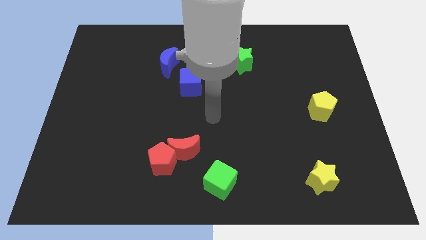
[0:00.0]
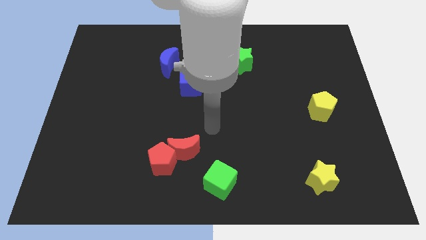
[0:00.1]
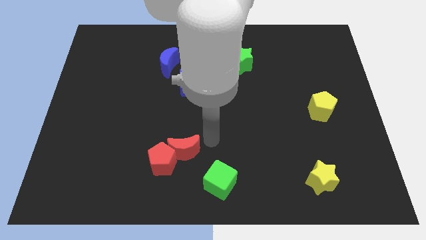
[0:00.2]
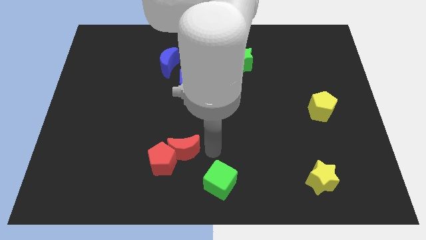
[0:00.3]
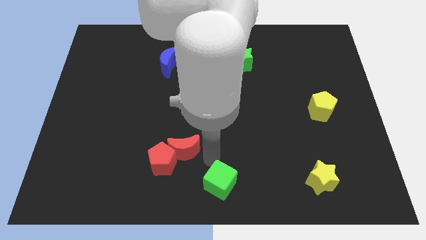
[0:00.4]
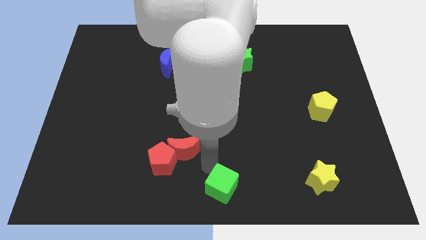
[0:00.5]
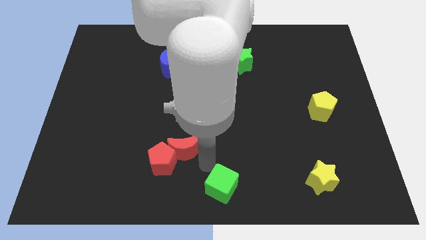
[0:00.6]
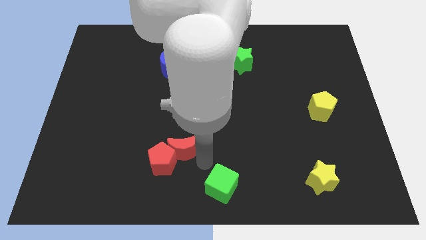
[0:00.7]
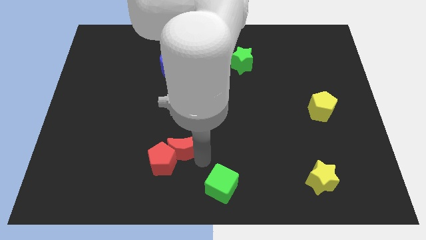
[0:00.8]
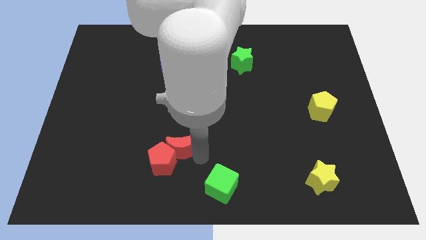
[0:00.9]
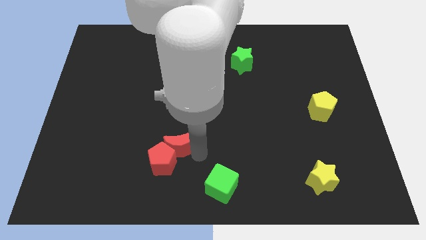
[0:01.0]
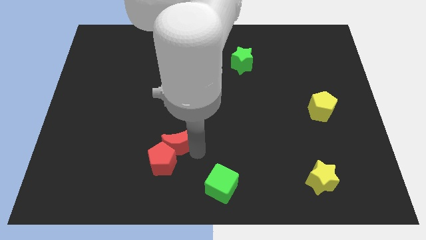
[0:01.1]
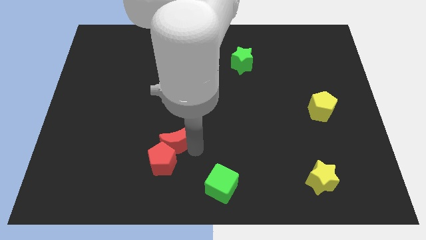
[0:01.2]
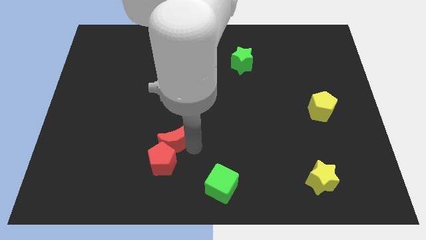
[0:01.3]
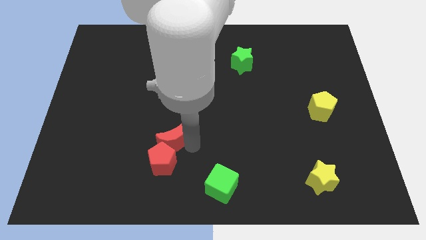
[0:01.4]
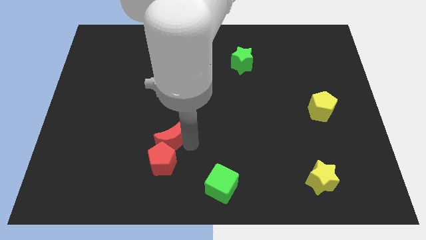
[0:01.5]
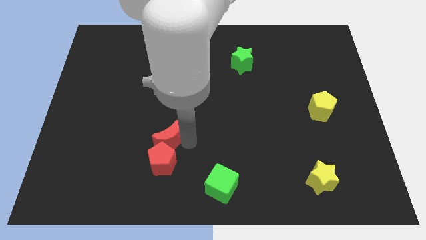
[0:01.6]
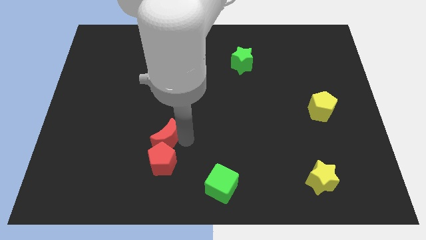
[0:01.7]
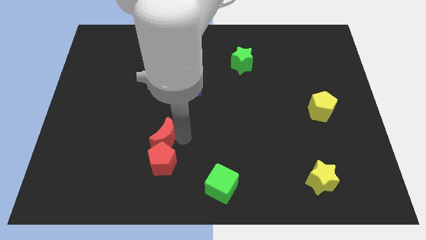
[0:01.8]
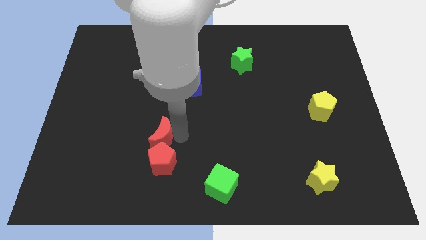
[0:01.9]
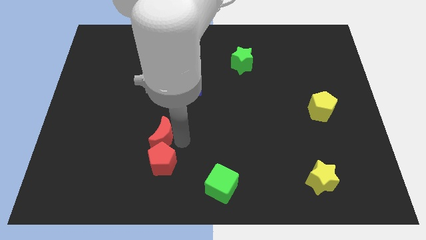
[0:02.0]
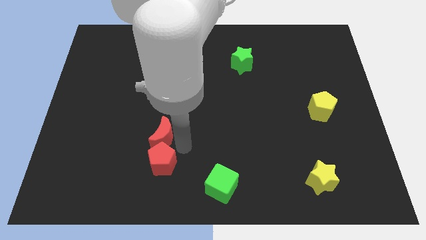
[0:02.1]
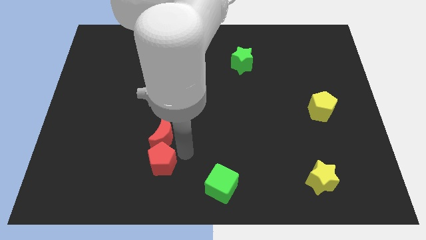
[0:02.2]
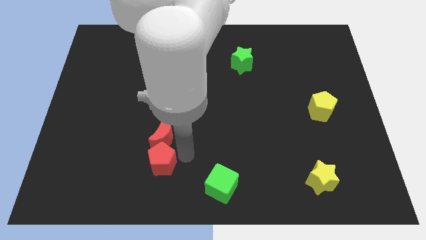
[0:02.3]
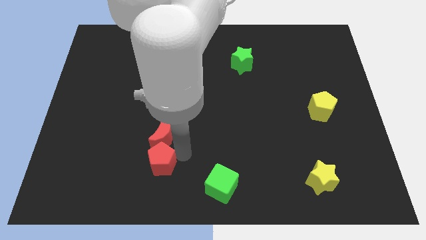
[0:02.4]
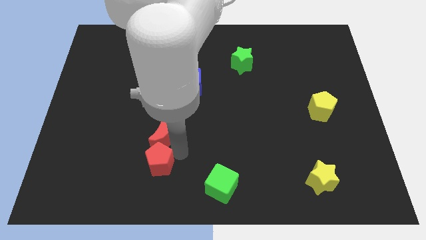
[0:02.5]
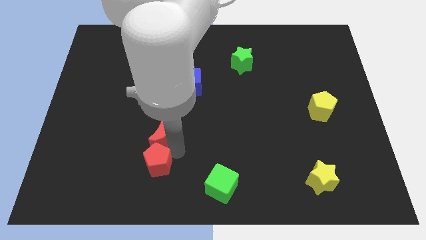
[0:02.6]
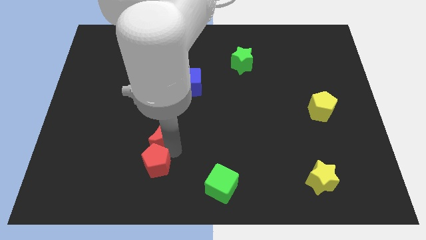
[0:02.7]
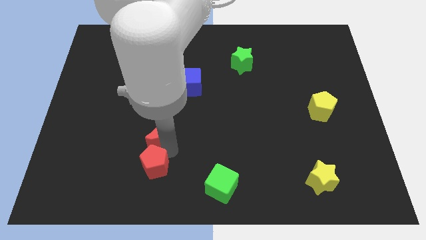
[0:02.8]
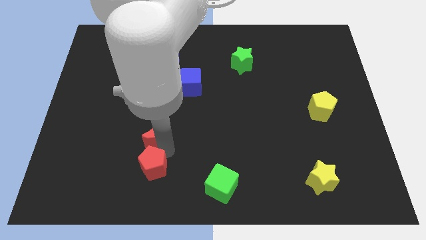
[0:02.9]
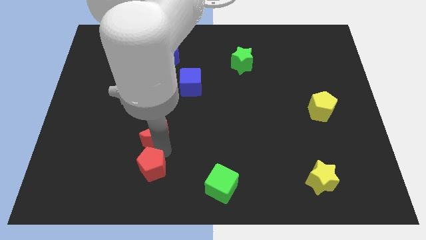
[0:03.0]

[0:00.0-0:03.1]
push the red moon slightly up and to the left diagonally

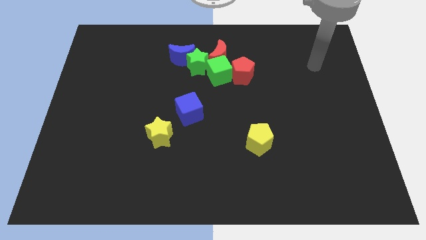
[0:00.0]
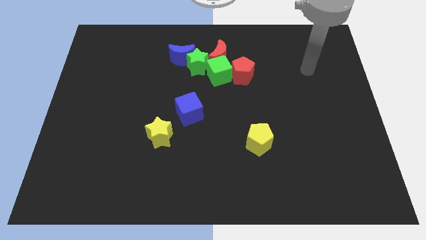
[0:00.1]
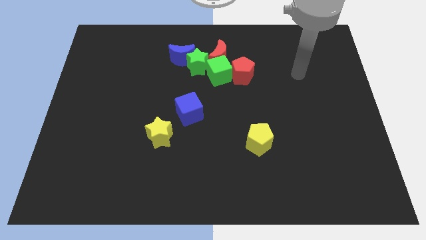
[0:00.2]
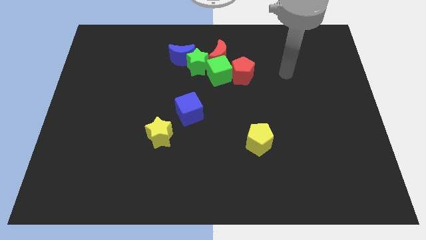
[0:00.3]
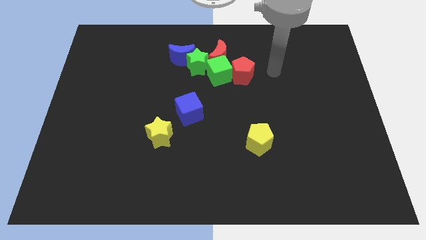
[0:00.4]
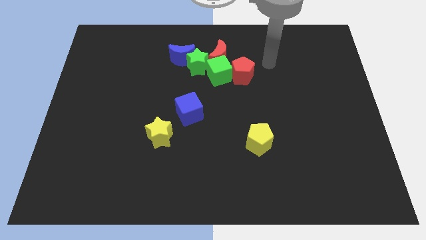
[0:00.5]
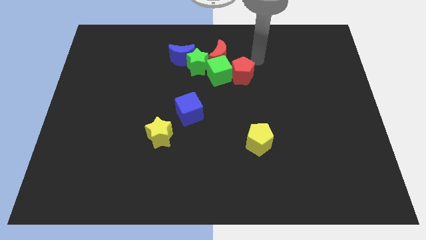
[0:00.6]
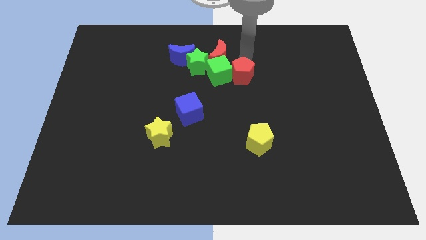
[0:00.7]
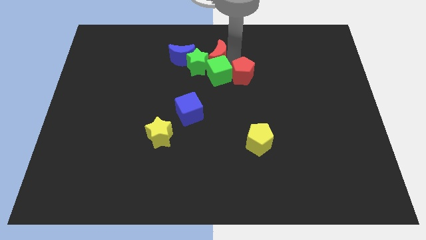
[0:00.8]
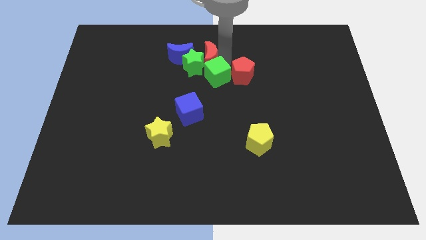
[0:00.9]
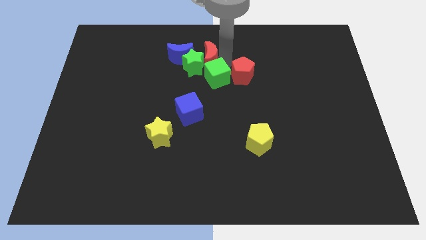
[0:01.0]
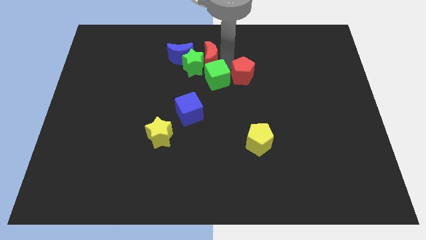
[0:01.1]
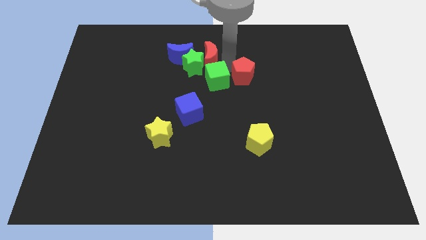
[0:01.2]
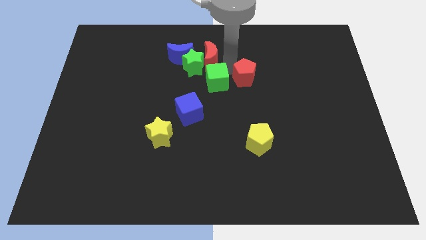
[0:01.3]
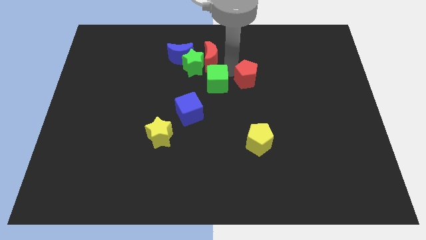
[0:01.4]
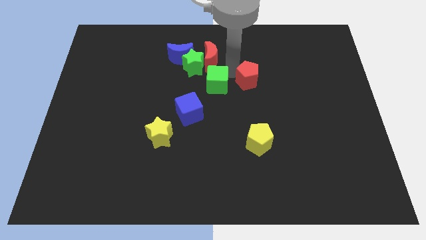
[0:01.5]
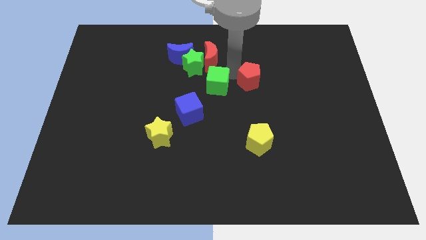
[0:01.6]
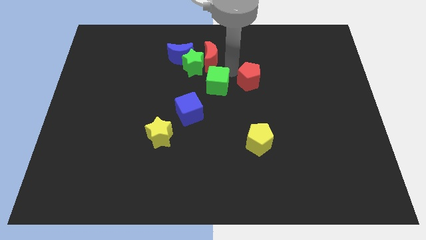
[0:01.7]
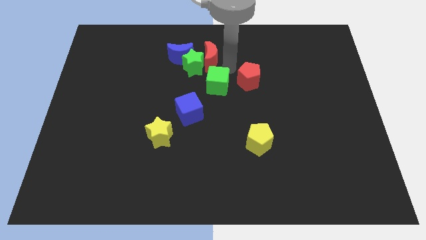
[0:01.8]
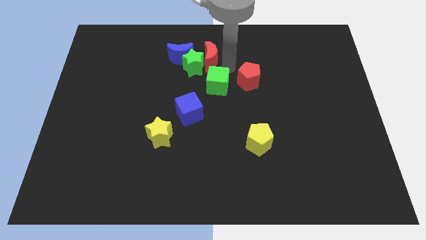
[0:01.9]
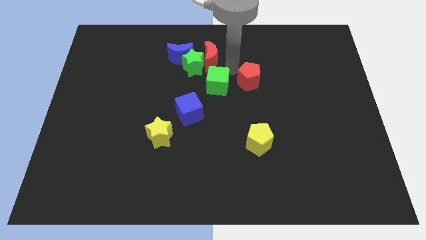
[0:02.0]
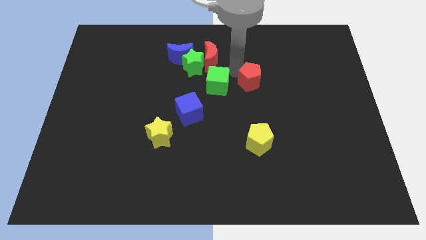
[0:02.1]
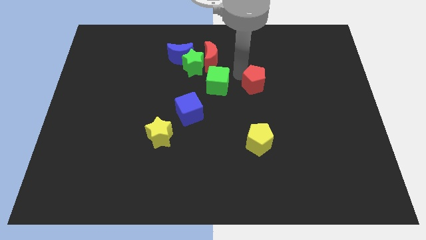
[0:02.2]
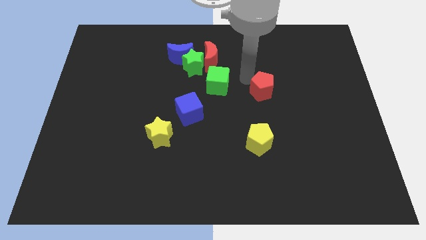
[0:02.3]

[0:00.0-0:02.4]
slightly move the red pentagon down and to the right

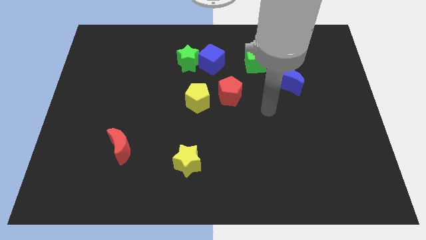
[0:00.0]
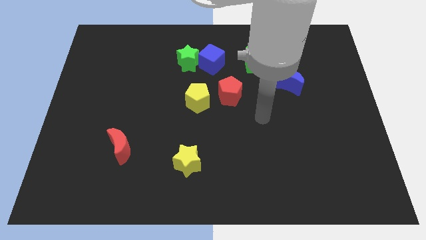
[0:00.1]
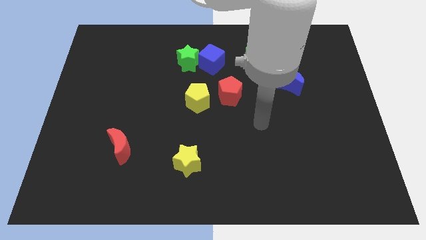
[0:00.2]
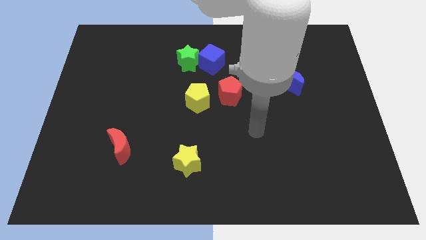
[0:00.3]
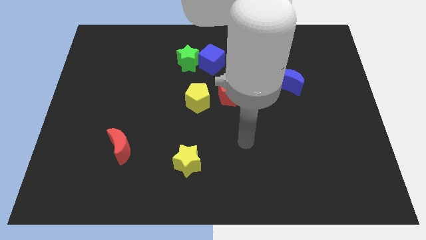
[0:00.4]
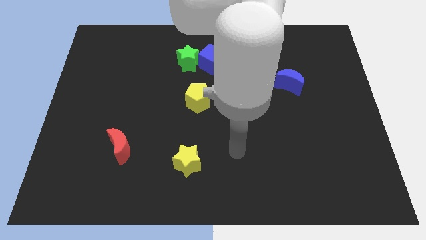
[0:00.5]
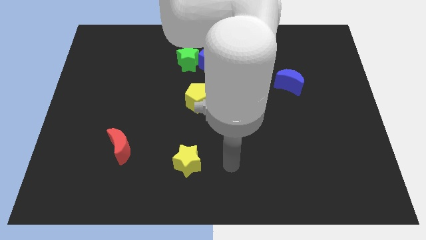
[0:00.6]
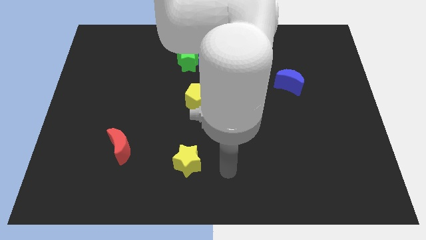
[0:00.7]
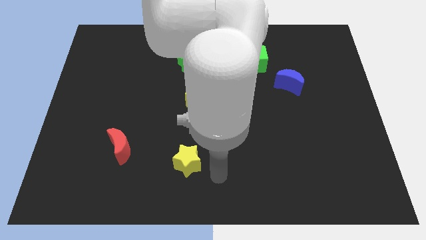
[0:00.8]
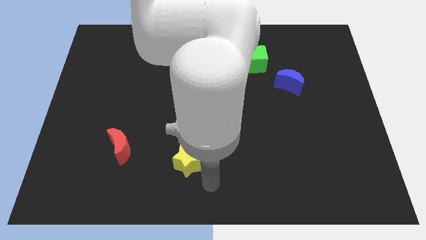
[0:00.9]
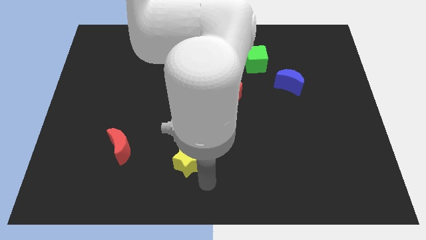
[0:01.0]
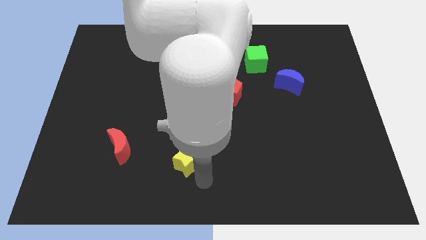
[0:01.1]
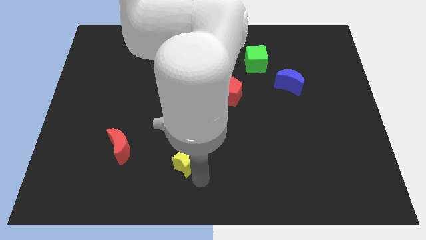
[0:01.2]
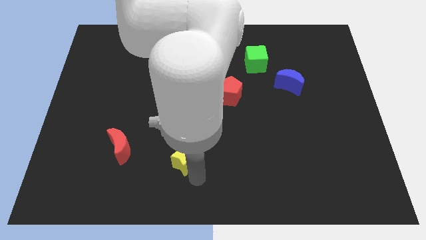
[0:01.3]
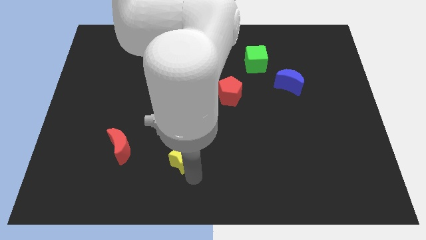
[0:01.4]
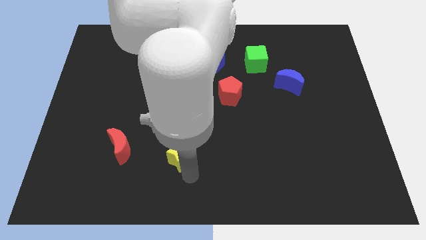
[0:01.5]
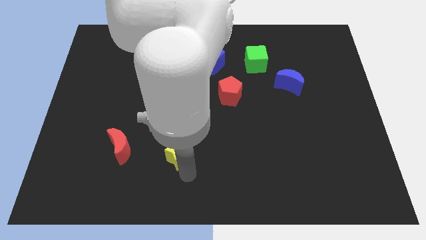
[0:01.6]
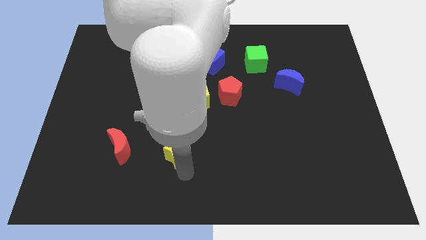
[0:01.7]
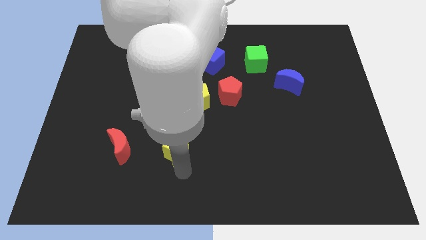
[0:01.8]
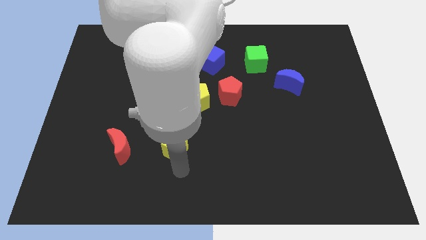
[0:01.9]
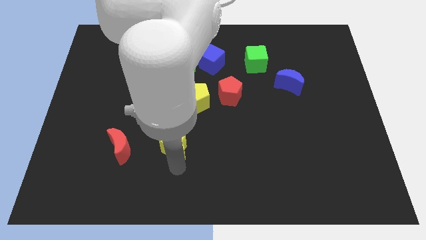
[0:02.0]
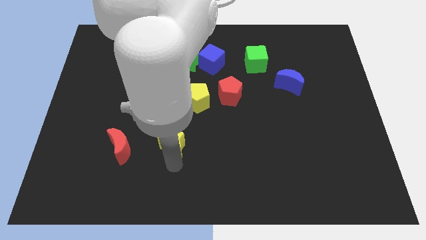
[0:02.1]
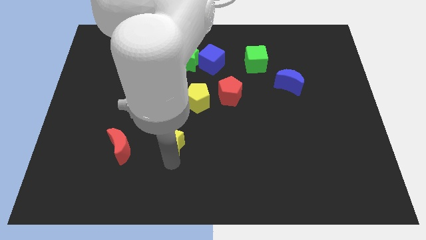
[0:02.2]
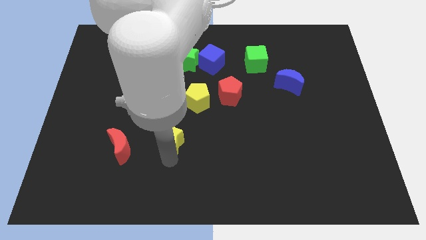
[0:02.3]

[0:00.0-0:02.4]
slide the yellow star up and then to the left a little
